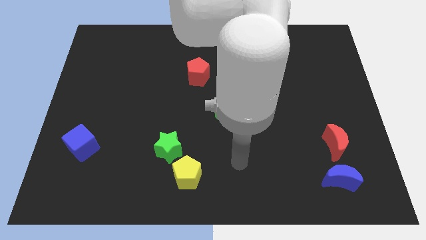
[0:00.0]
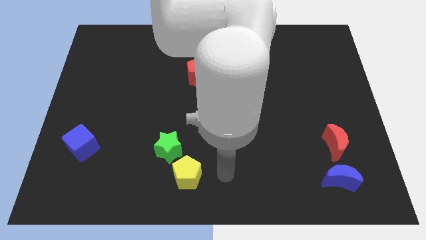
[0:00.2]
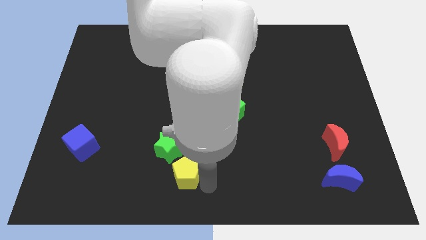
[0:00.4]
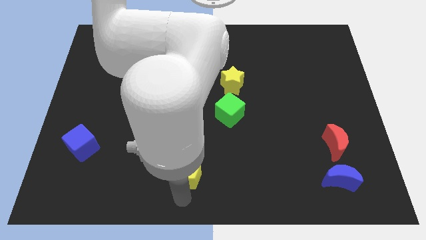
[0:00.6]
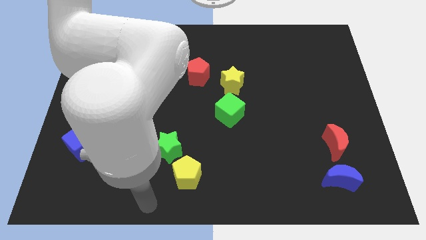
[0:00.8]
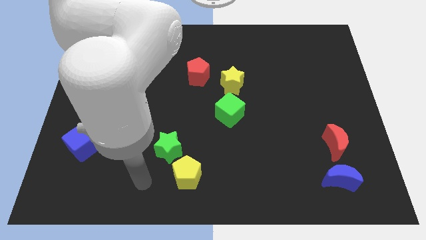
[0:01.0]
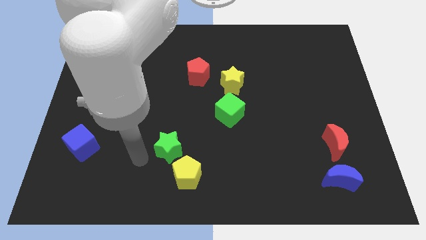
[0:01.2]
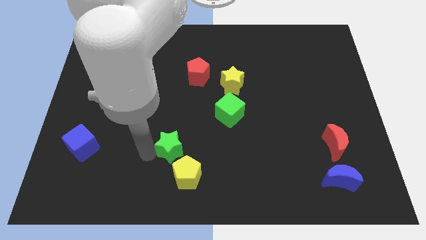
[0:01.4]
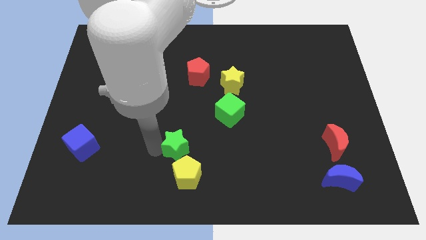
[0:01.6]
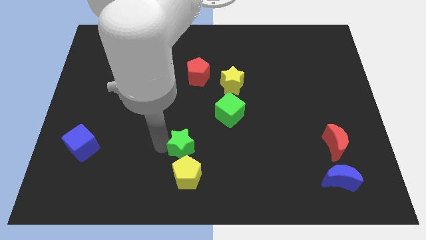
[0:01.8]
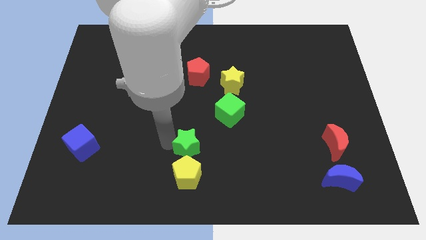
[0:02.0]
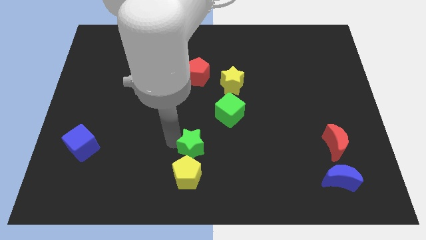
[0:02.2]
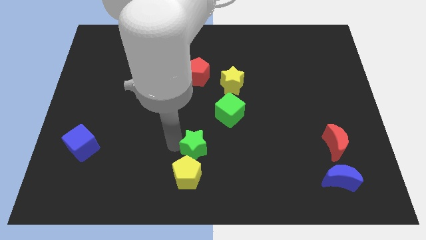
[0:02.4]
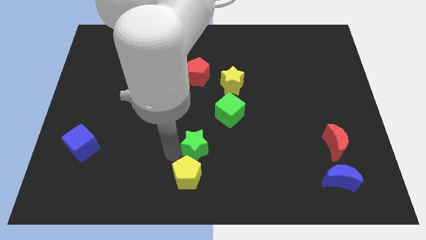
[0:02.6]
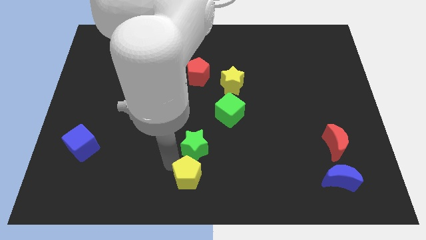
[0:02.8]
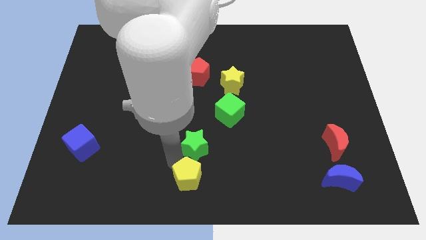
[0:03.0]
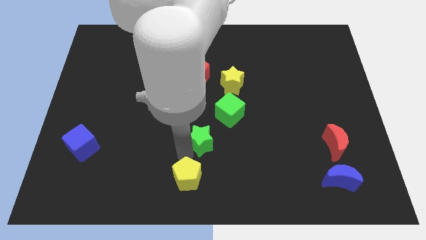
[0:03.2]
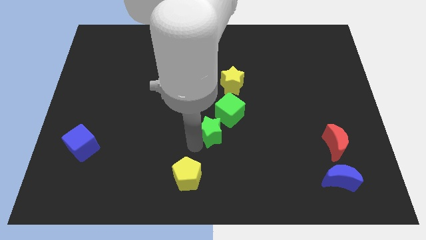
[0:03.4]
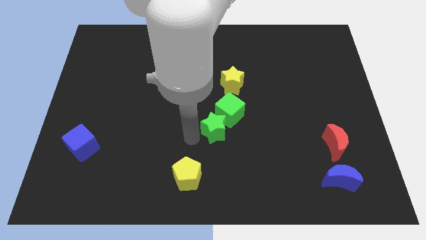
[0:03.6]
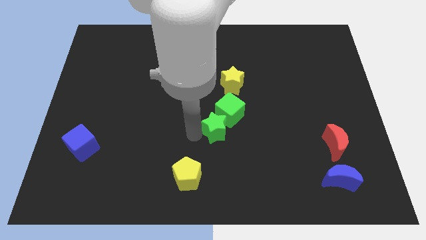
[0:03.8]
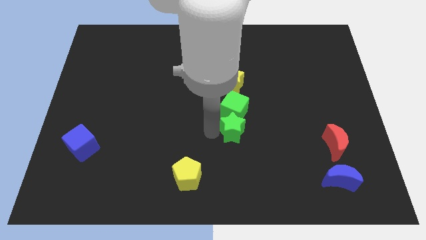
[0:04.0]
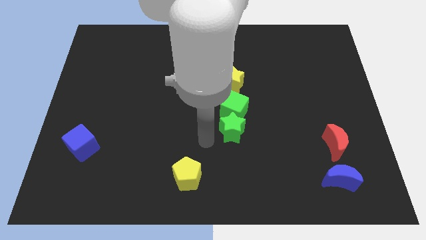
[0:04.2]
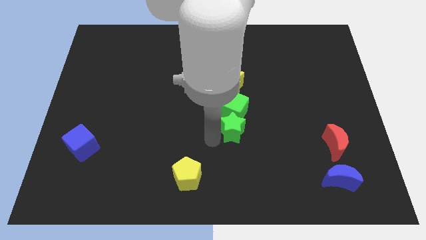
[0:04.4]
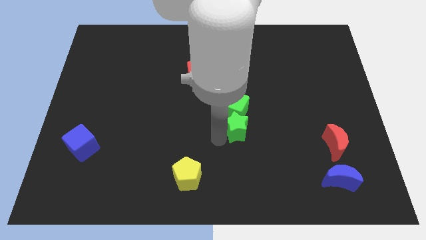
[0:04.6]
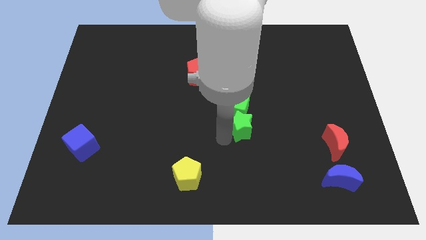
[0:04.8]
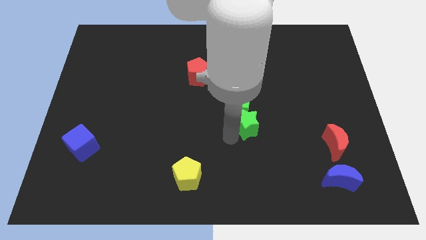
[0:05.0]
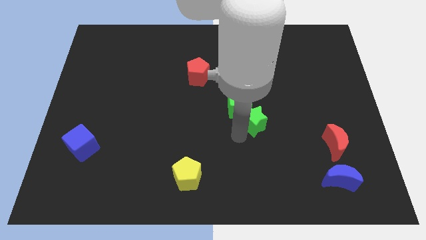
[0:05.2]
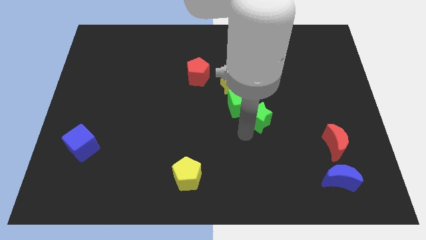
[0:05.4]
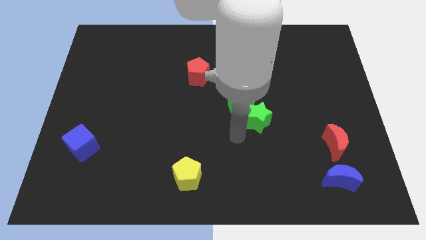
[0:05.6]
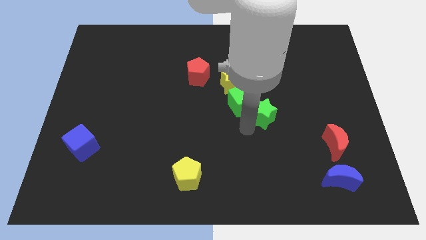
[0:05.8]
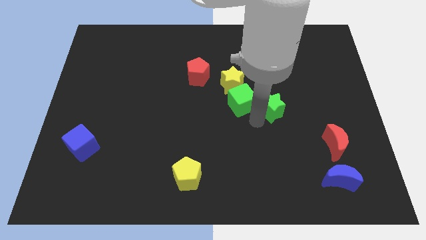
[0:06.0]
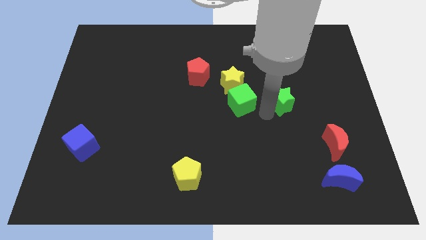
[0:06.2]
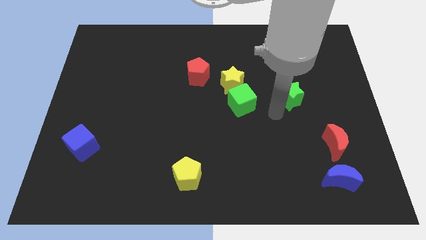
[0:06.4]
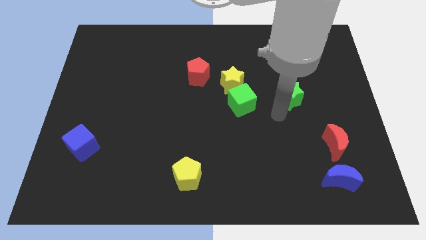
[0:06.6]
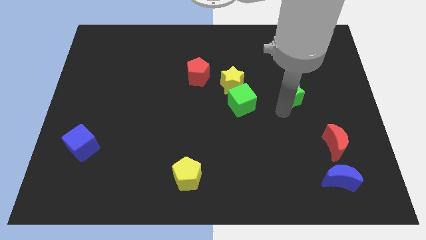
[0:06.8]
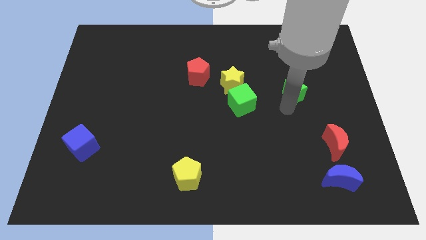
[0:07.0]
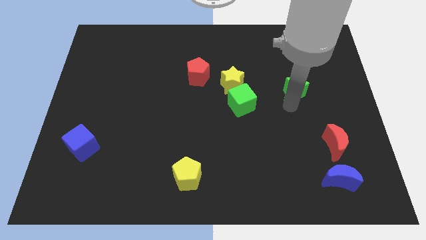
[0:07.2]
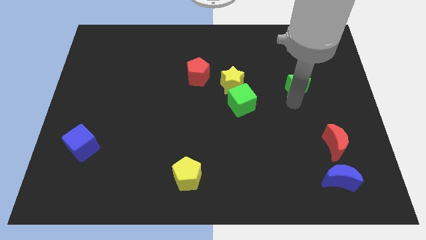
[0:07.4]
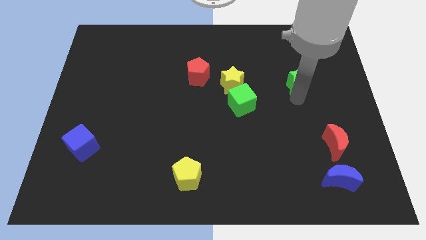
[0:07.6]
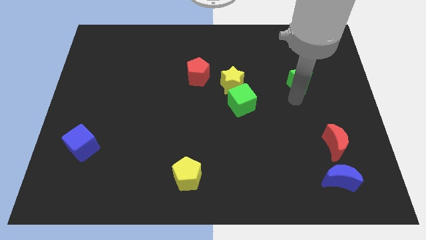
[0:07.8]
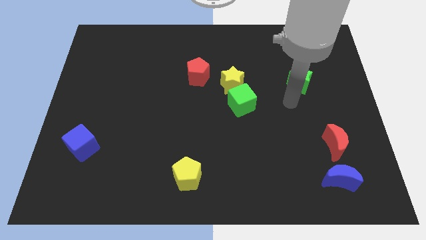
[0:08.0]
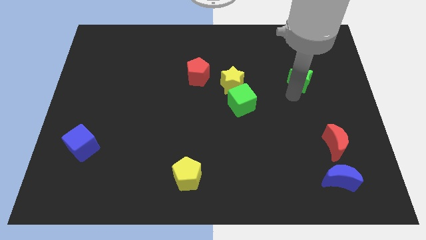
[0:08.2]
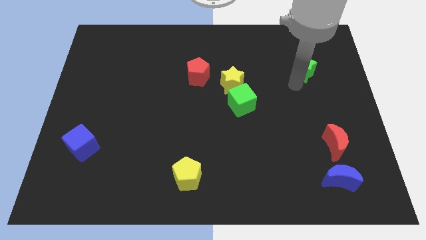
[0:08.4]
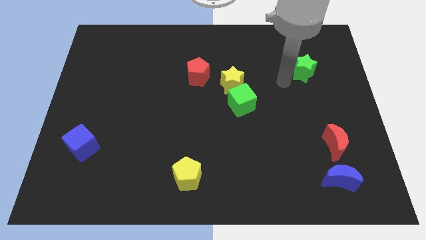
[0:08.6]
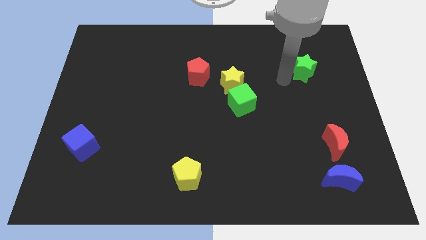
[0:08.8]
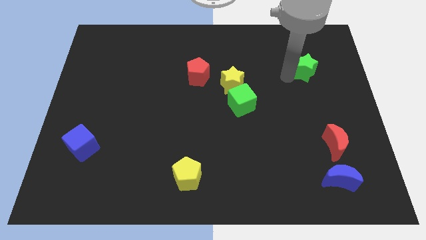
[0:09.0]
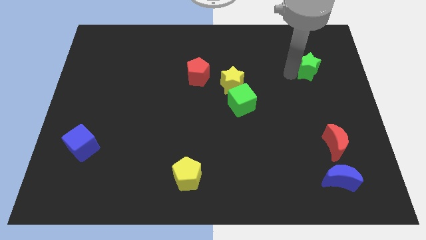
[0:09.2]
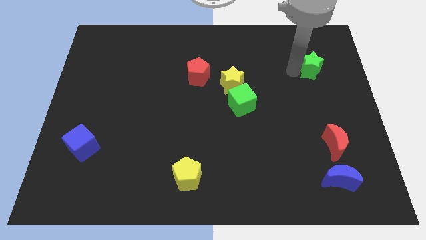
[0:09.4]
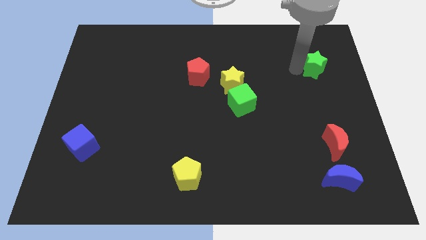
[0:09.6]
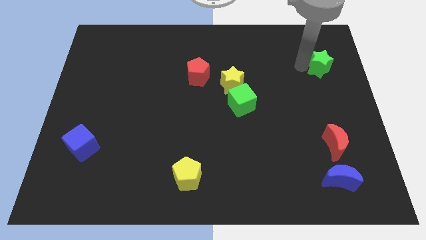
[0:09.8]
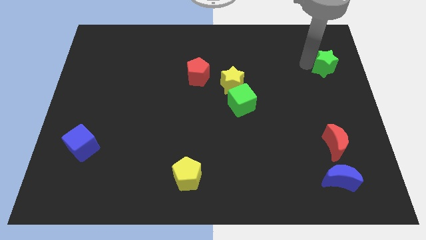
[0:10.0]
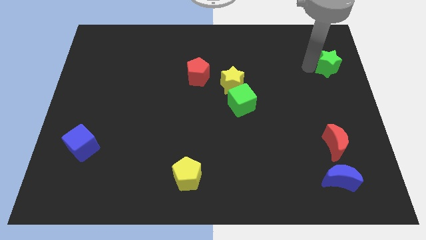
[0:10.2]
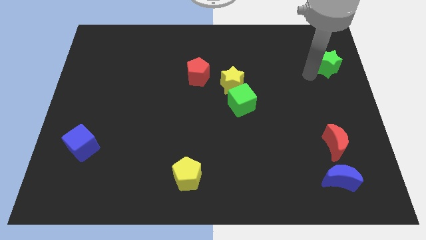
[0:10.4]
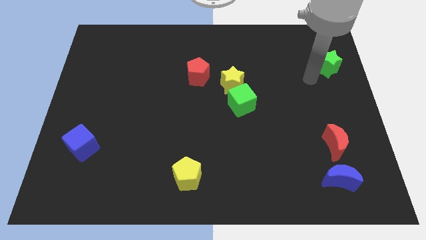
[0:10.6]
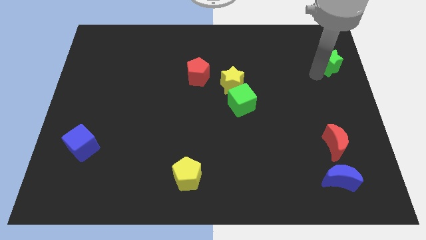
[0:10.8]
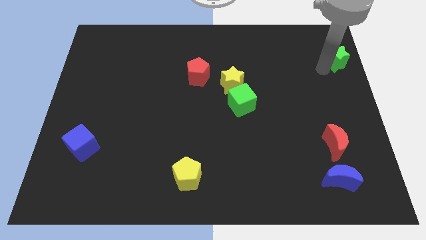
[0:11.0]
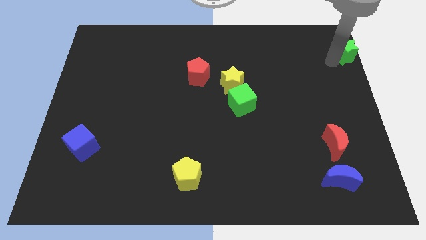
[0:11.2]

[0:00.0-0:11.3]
push the green star to the top right corner

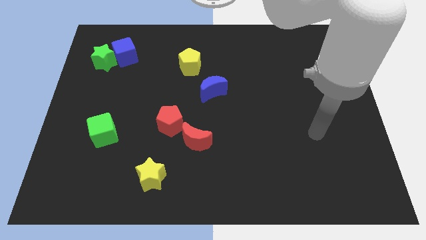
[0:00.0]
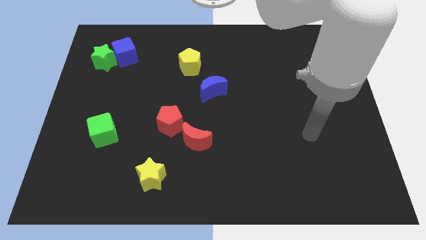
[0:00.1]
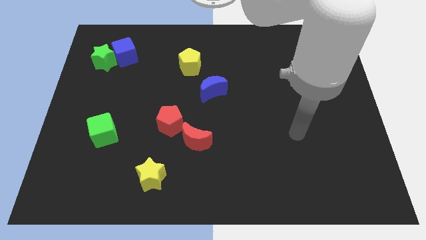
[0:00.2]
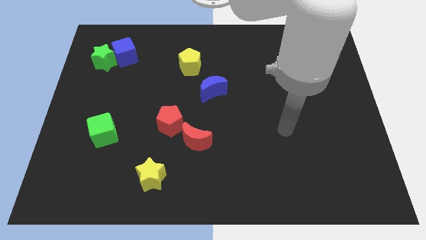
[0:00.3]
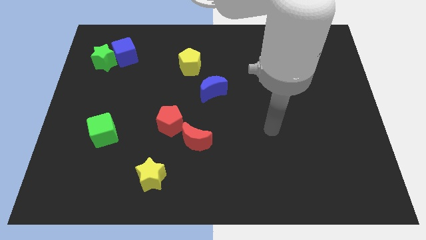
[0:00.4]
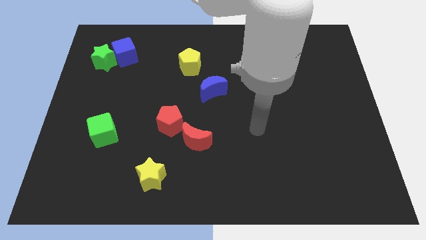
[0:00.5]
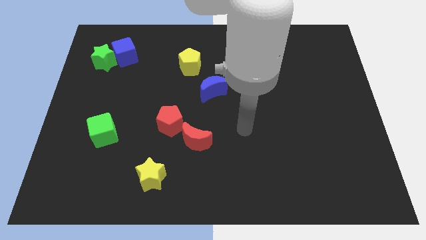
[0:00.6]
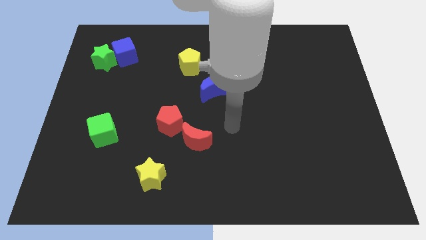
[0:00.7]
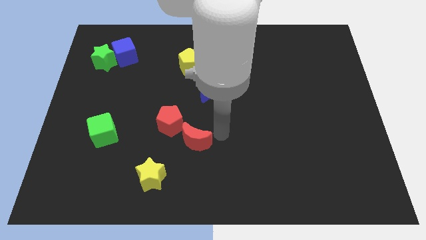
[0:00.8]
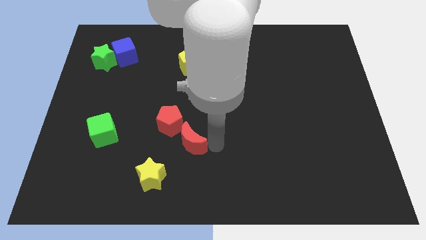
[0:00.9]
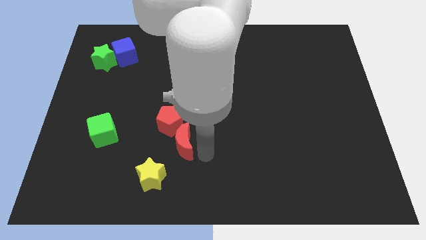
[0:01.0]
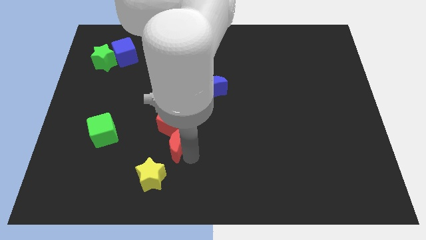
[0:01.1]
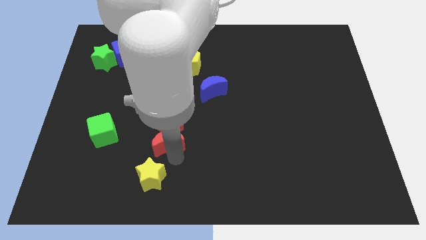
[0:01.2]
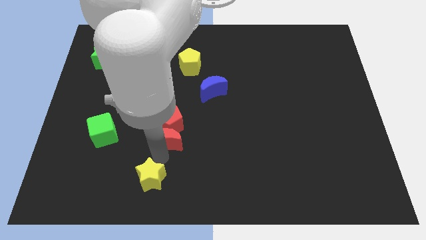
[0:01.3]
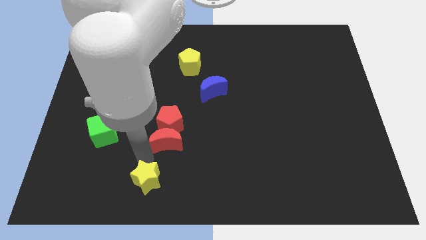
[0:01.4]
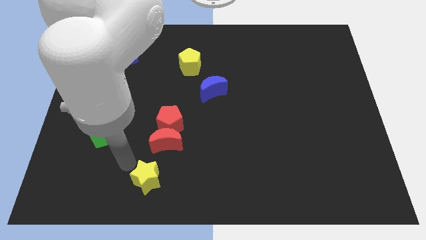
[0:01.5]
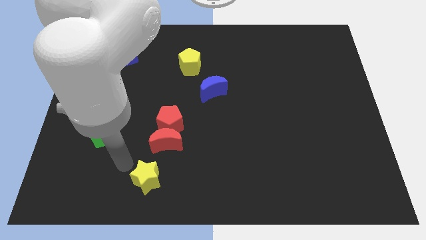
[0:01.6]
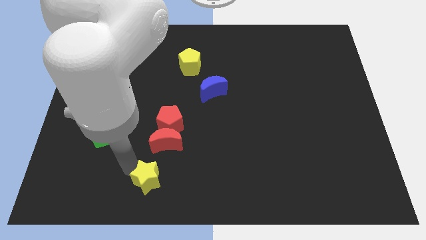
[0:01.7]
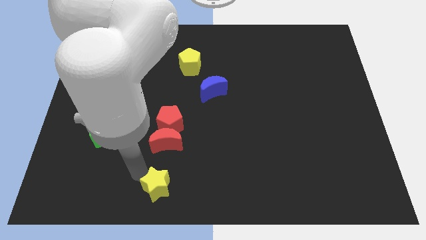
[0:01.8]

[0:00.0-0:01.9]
slide the yellow star to the bottom side
